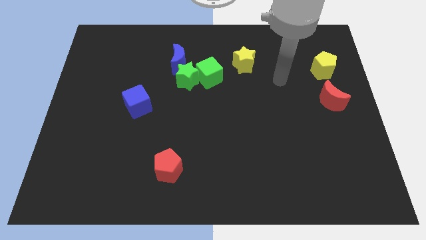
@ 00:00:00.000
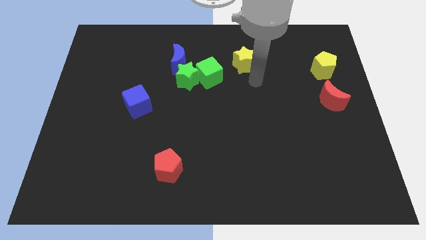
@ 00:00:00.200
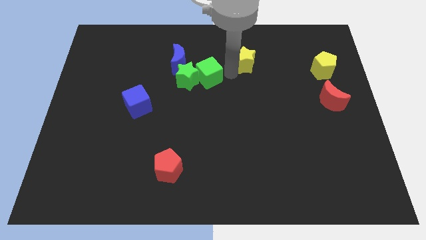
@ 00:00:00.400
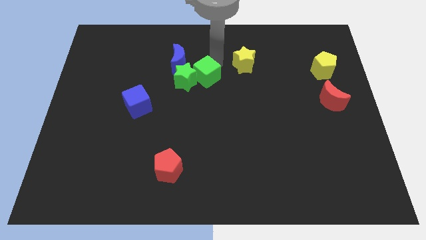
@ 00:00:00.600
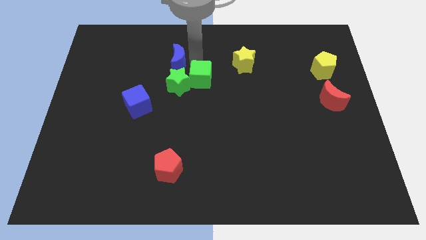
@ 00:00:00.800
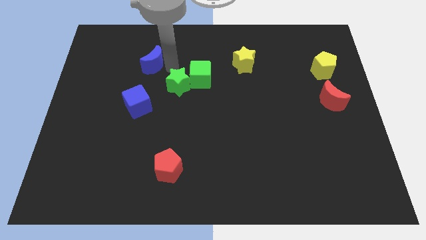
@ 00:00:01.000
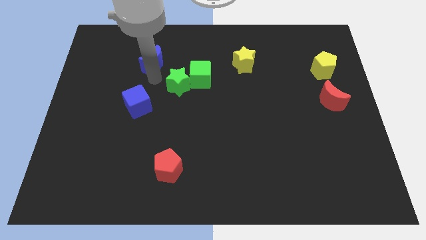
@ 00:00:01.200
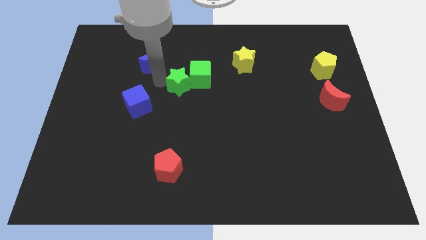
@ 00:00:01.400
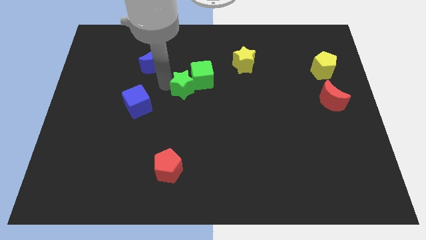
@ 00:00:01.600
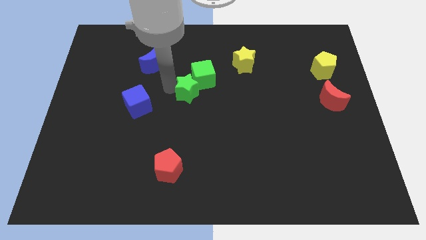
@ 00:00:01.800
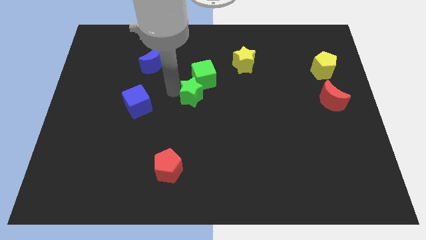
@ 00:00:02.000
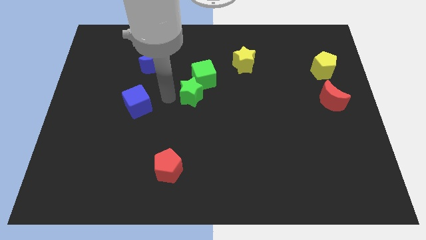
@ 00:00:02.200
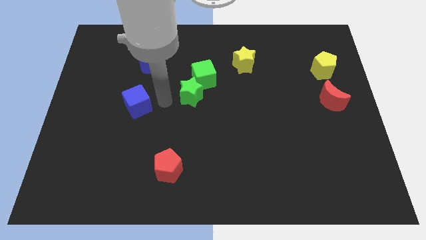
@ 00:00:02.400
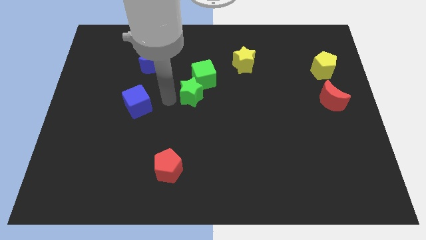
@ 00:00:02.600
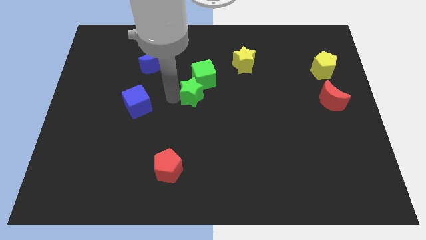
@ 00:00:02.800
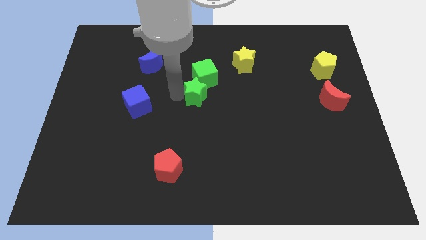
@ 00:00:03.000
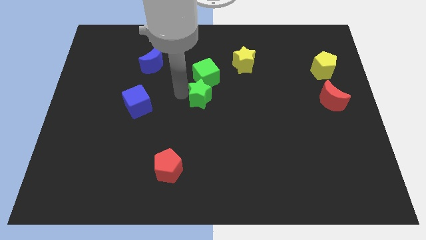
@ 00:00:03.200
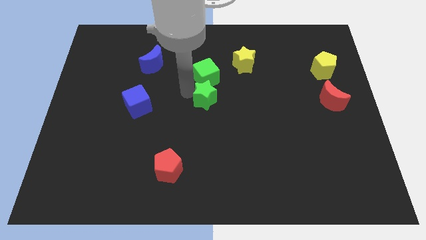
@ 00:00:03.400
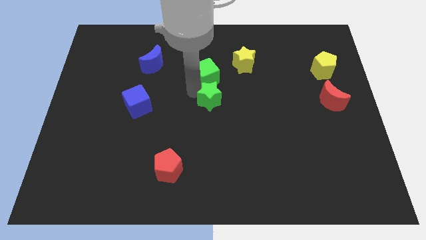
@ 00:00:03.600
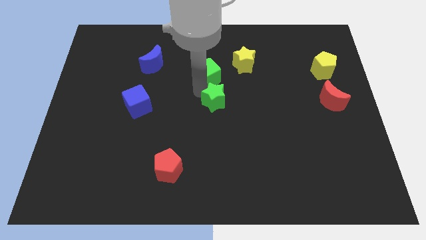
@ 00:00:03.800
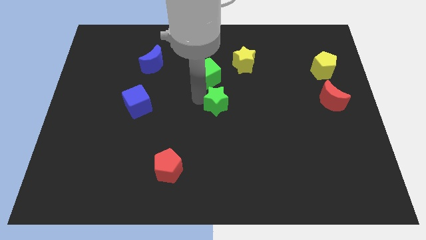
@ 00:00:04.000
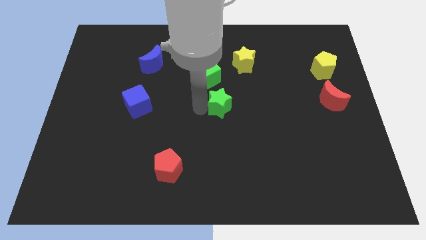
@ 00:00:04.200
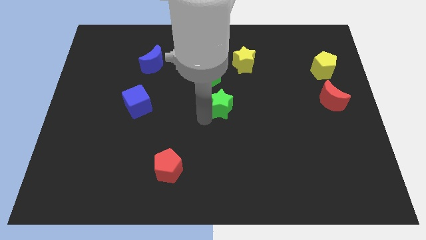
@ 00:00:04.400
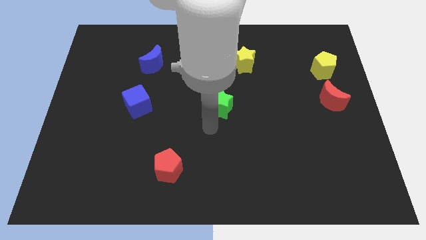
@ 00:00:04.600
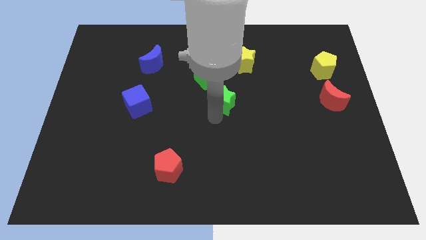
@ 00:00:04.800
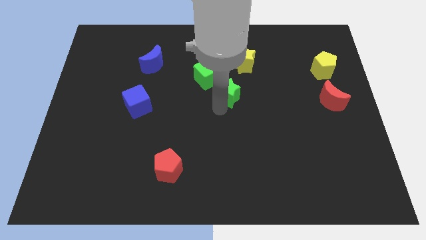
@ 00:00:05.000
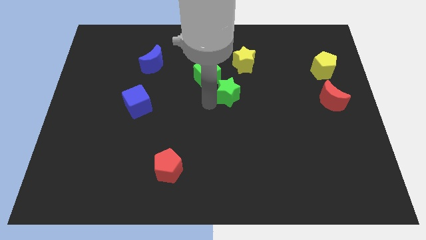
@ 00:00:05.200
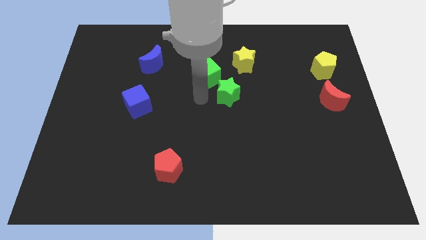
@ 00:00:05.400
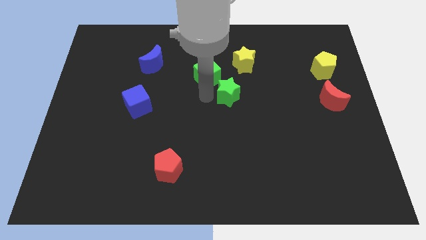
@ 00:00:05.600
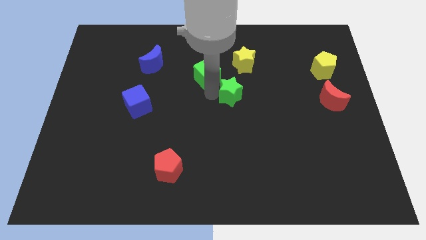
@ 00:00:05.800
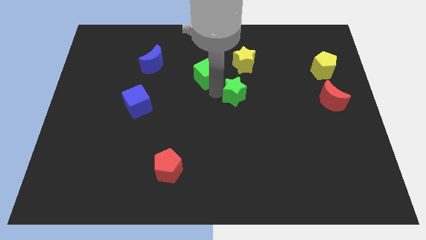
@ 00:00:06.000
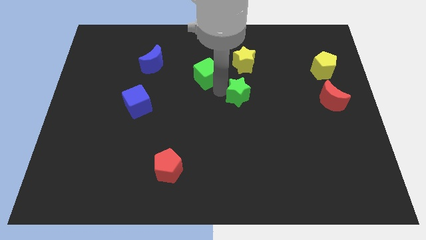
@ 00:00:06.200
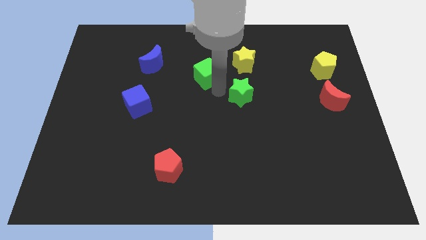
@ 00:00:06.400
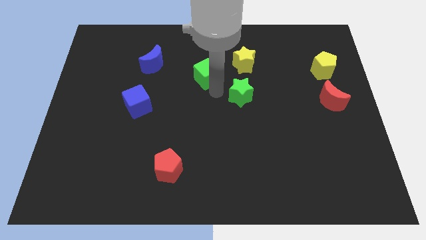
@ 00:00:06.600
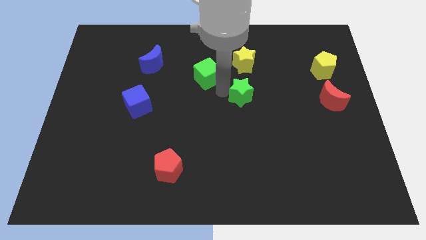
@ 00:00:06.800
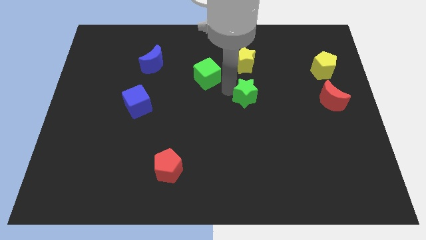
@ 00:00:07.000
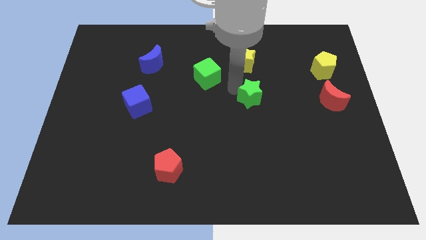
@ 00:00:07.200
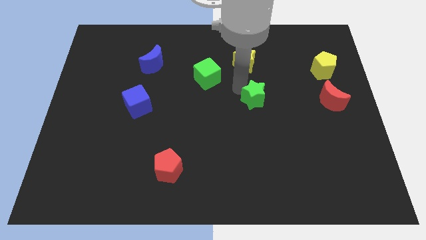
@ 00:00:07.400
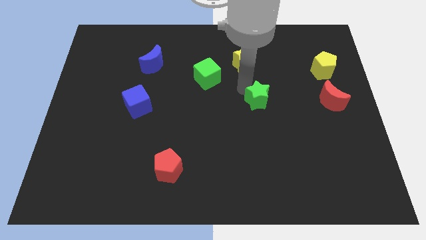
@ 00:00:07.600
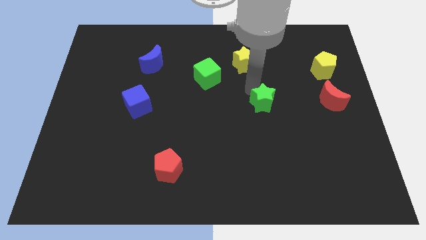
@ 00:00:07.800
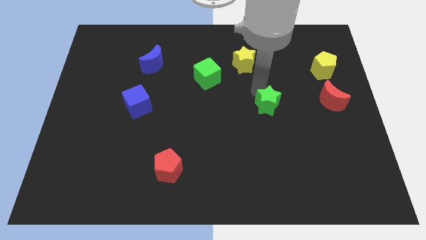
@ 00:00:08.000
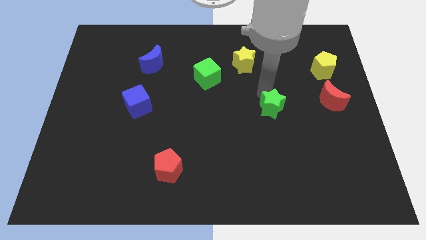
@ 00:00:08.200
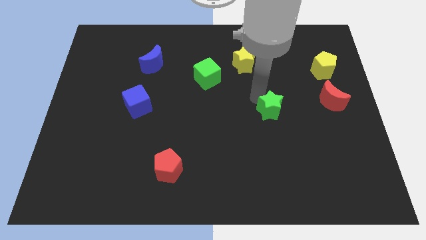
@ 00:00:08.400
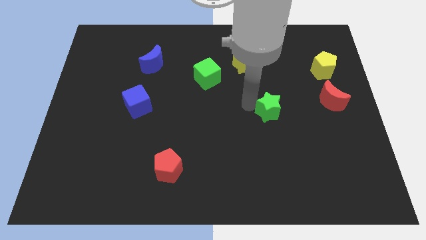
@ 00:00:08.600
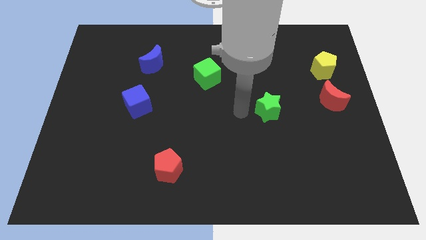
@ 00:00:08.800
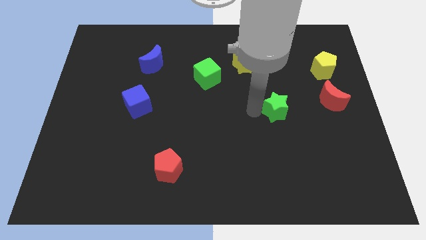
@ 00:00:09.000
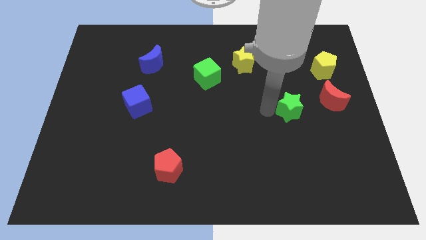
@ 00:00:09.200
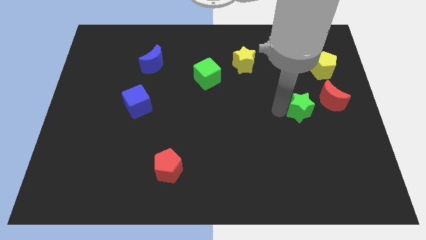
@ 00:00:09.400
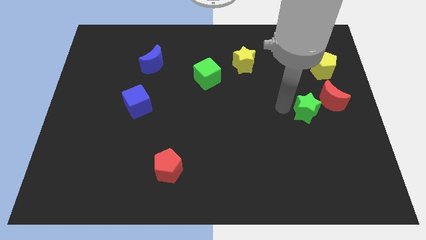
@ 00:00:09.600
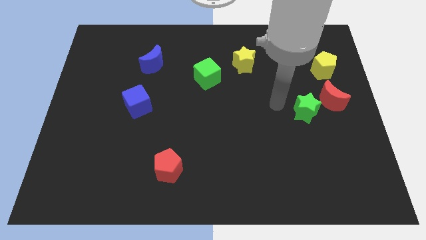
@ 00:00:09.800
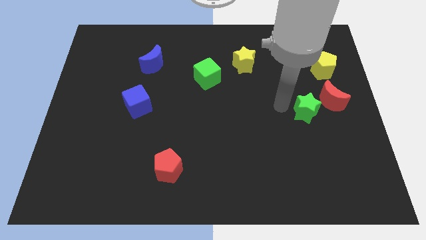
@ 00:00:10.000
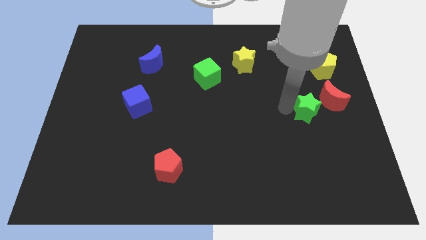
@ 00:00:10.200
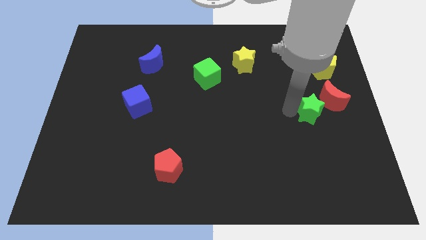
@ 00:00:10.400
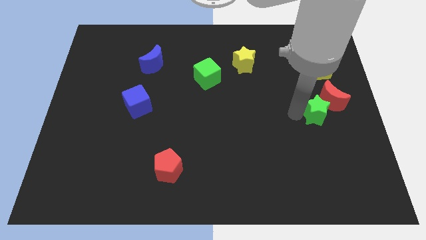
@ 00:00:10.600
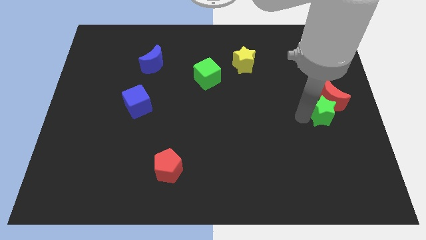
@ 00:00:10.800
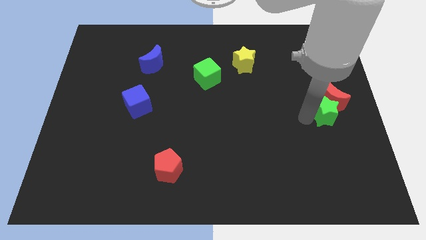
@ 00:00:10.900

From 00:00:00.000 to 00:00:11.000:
put the green star to the right side of the board

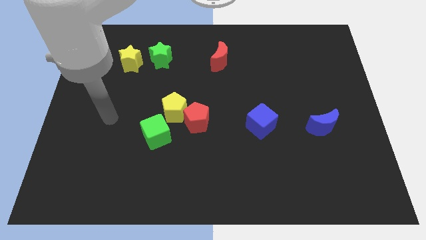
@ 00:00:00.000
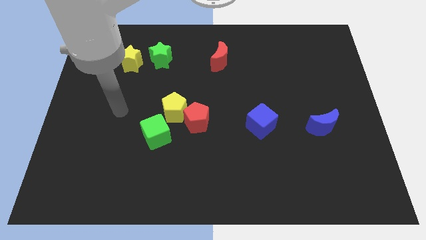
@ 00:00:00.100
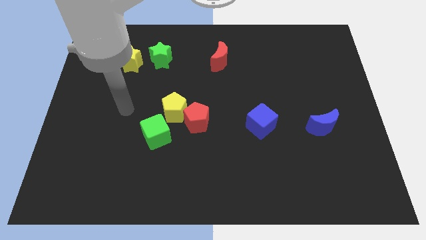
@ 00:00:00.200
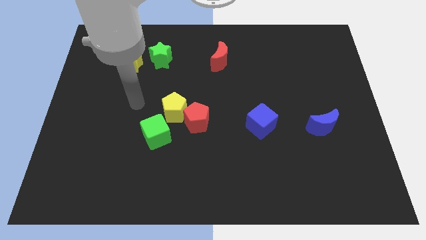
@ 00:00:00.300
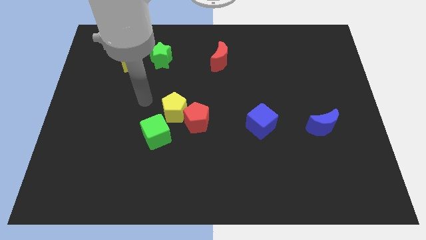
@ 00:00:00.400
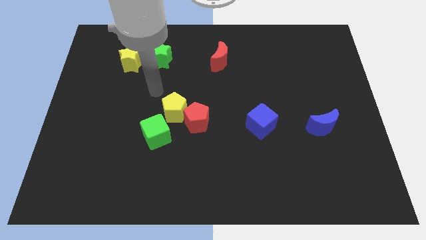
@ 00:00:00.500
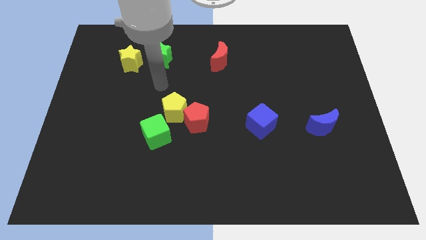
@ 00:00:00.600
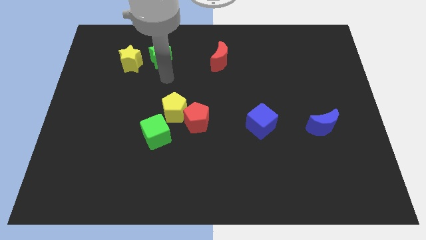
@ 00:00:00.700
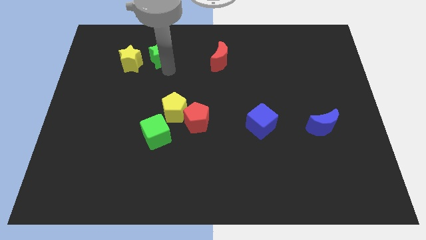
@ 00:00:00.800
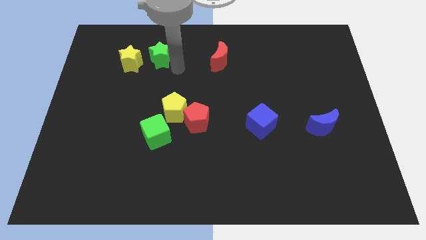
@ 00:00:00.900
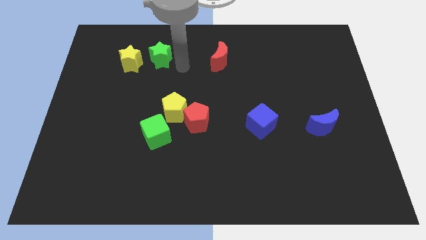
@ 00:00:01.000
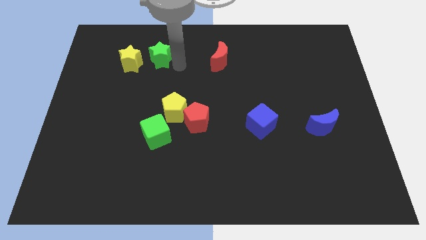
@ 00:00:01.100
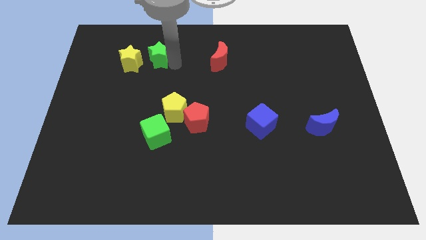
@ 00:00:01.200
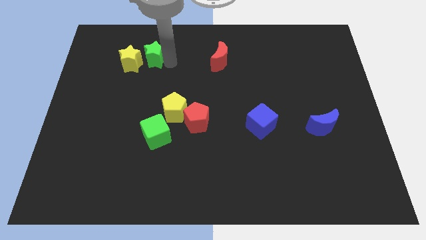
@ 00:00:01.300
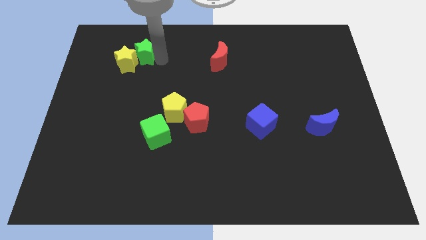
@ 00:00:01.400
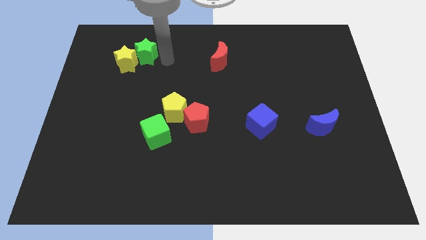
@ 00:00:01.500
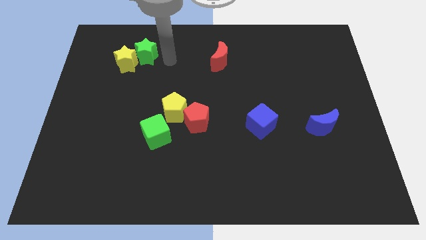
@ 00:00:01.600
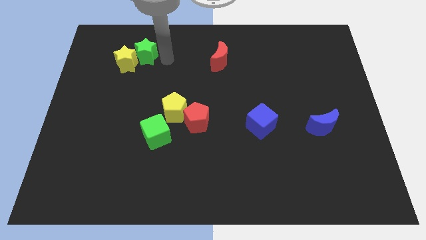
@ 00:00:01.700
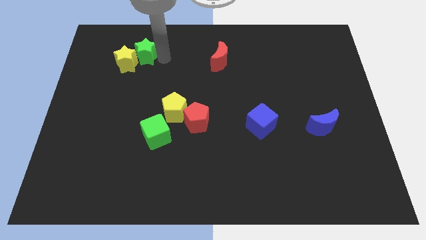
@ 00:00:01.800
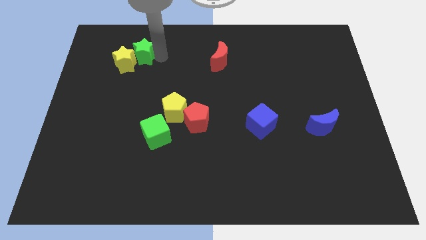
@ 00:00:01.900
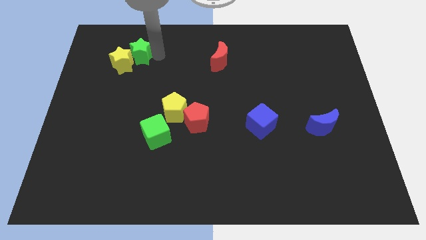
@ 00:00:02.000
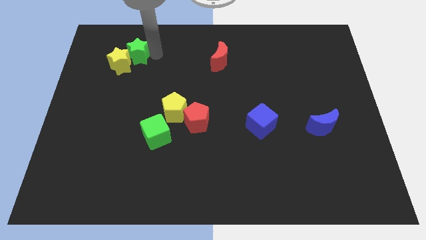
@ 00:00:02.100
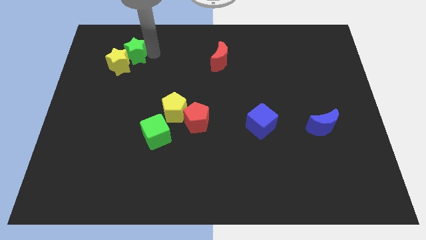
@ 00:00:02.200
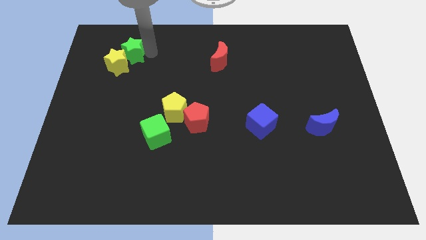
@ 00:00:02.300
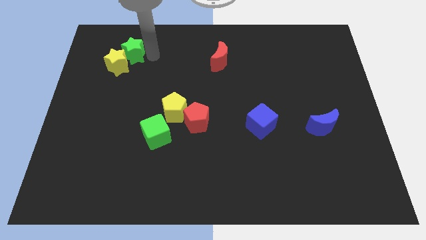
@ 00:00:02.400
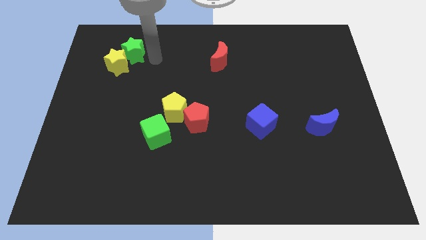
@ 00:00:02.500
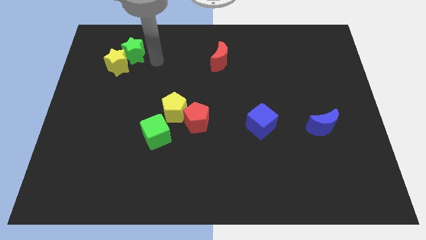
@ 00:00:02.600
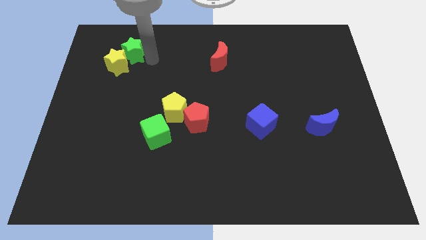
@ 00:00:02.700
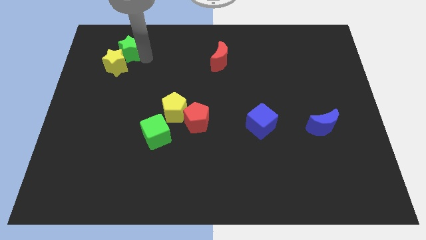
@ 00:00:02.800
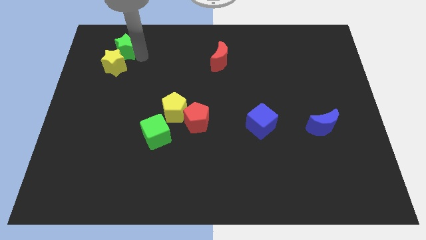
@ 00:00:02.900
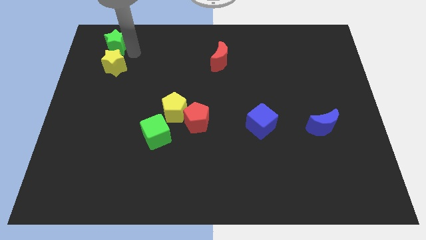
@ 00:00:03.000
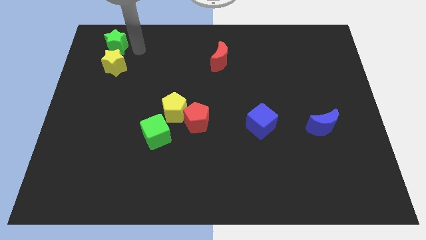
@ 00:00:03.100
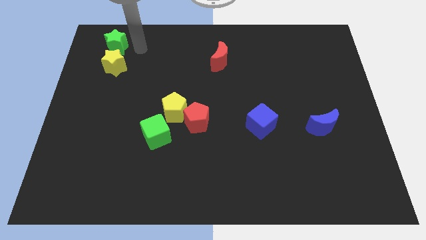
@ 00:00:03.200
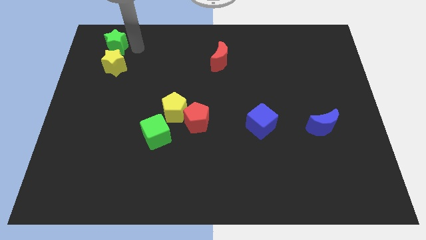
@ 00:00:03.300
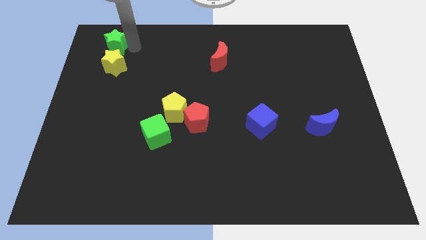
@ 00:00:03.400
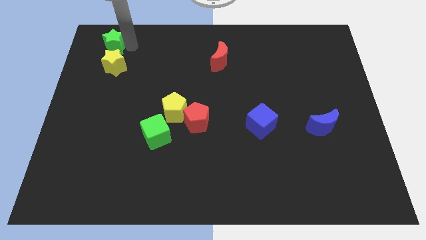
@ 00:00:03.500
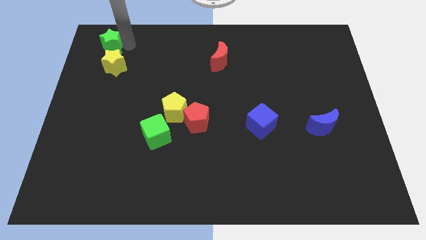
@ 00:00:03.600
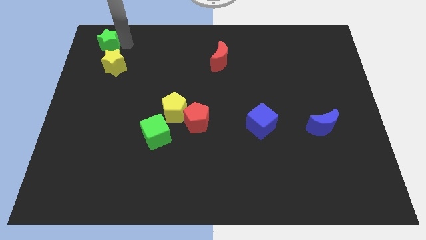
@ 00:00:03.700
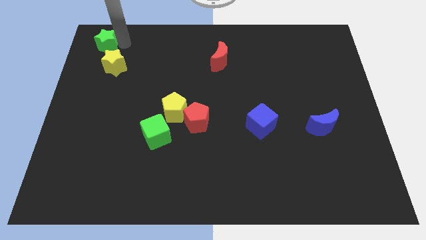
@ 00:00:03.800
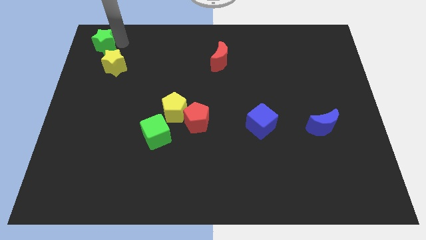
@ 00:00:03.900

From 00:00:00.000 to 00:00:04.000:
slide the green star to the upper left corner
